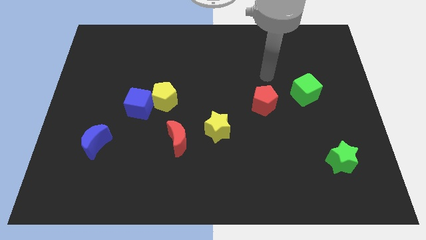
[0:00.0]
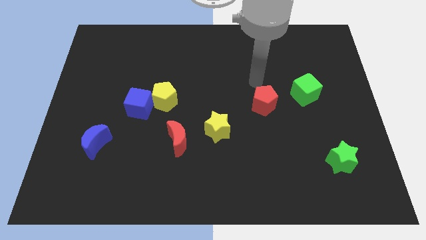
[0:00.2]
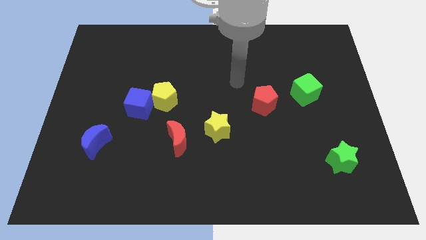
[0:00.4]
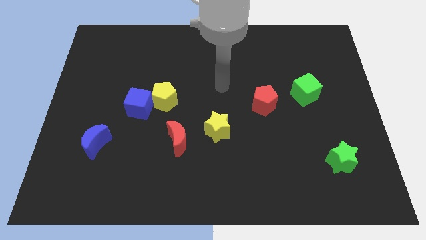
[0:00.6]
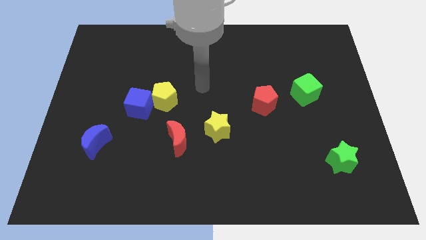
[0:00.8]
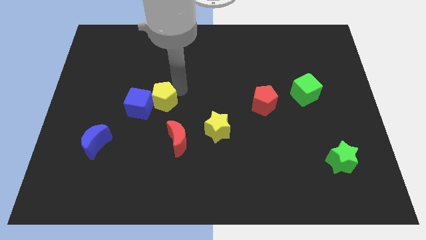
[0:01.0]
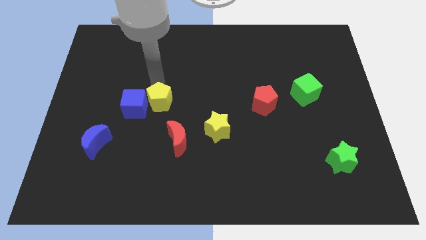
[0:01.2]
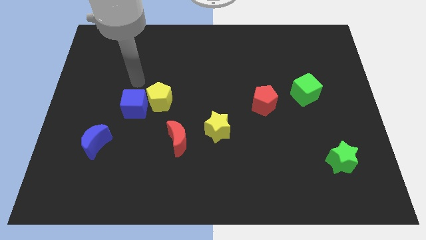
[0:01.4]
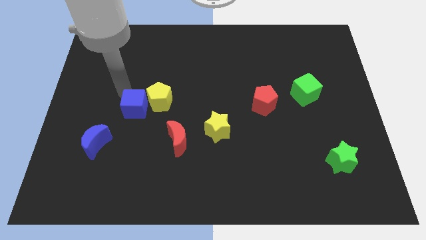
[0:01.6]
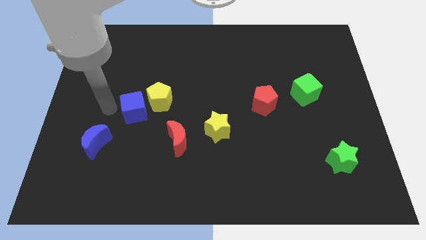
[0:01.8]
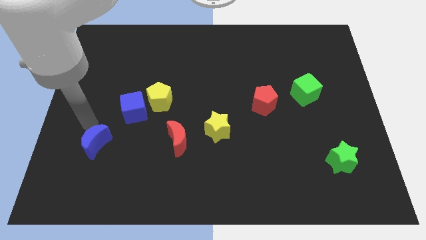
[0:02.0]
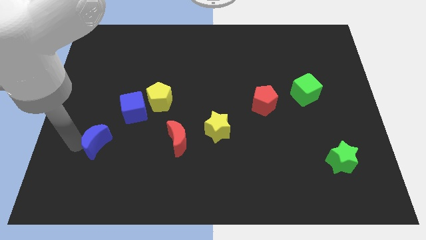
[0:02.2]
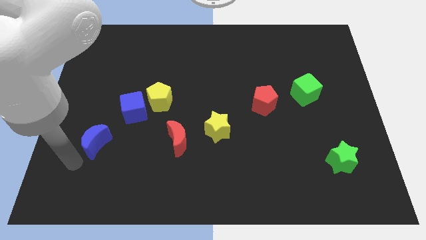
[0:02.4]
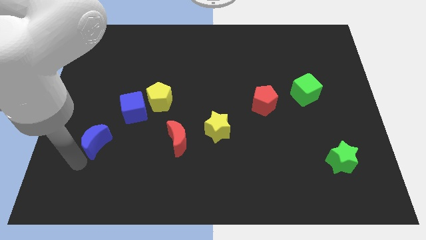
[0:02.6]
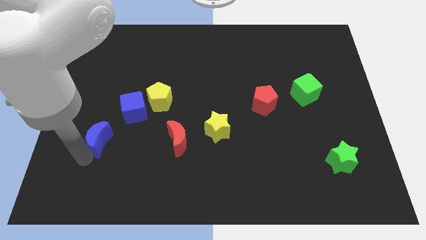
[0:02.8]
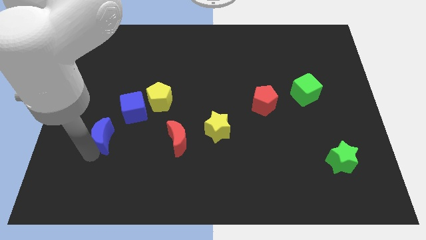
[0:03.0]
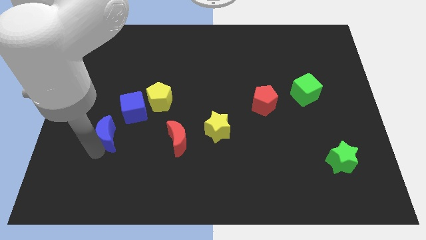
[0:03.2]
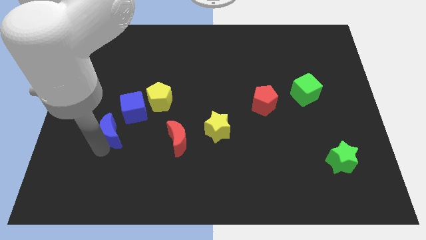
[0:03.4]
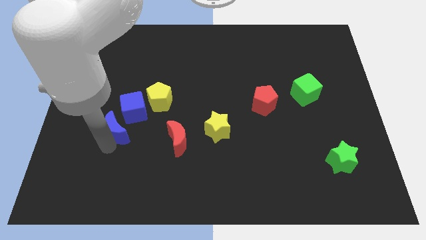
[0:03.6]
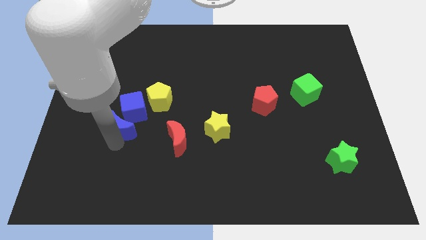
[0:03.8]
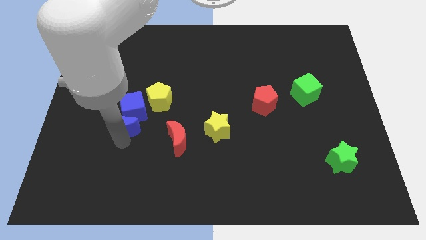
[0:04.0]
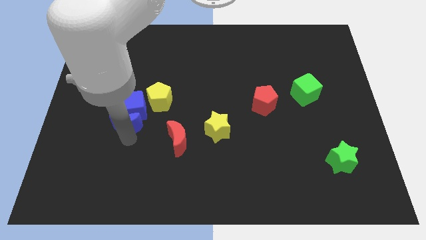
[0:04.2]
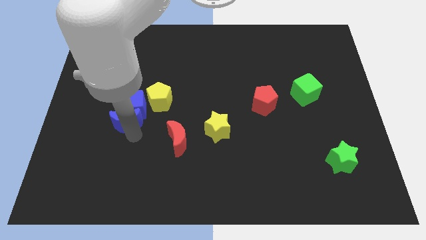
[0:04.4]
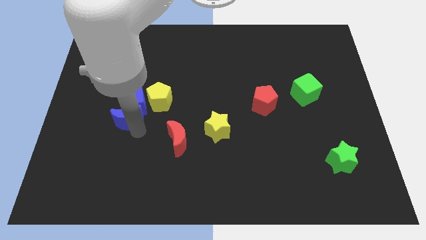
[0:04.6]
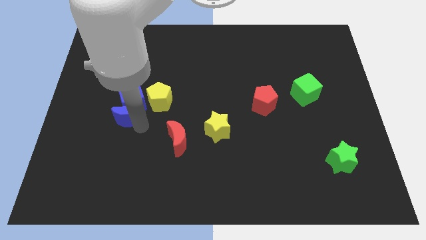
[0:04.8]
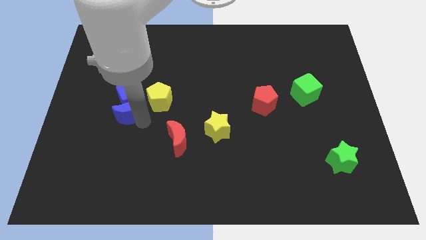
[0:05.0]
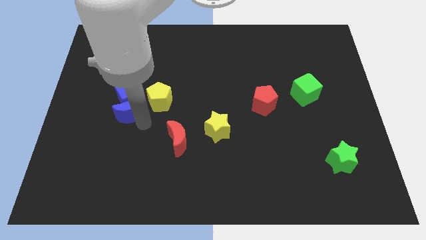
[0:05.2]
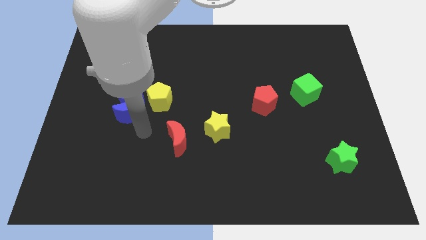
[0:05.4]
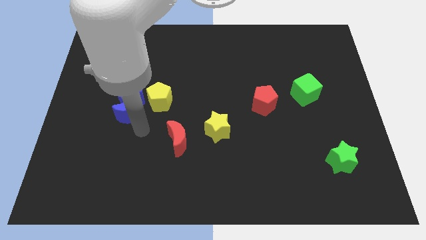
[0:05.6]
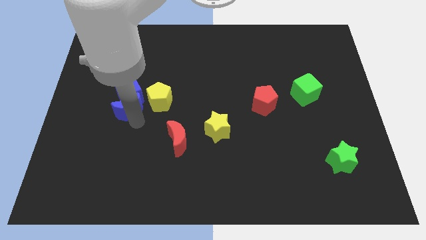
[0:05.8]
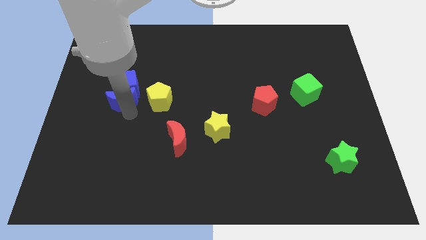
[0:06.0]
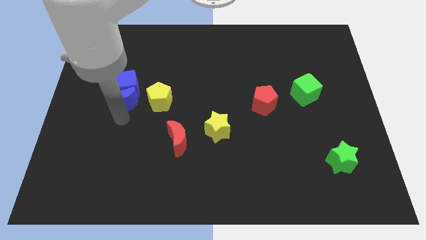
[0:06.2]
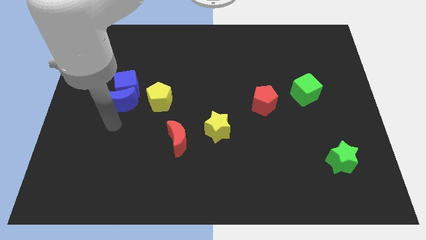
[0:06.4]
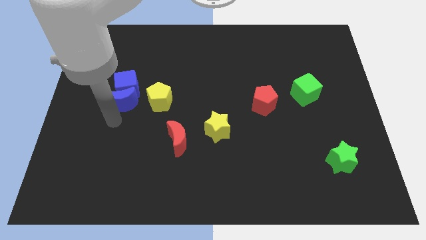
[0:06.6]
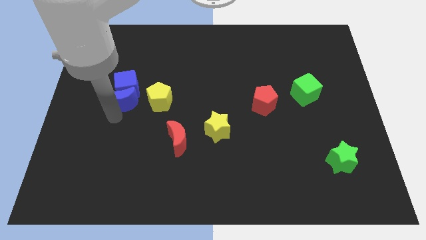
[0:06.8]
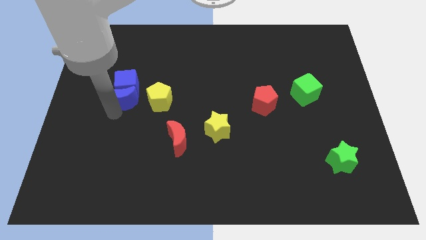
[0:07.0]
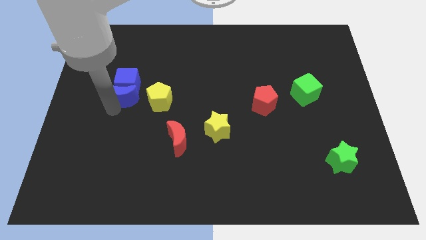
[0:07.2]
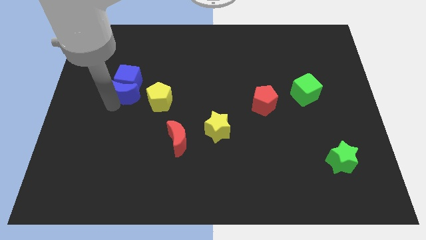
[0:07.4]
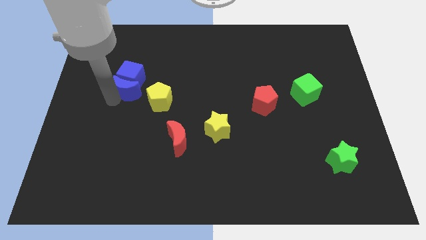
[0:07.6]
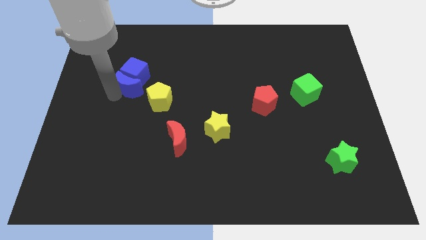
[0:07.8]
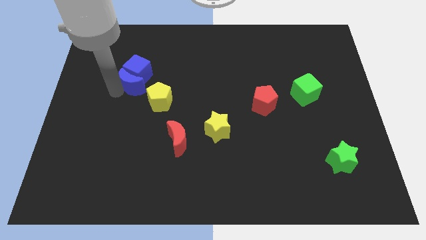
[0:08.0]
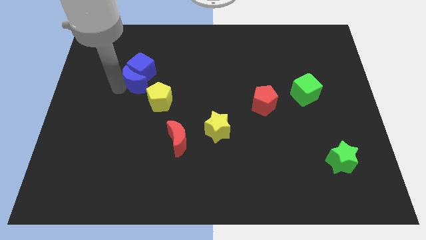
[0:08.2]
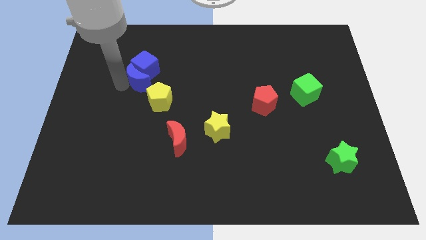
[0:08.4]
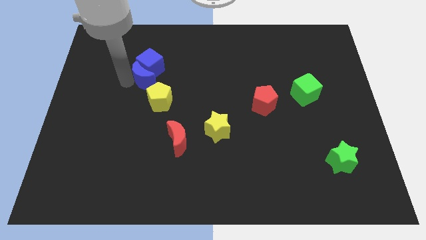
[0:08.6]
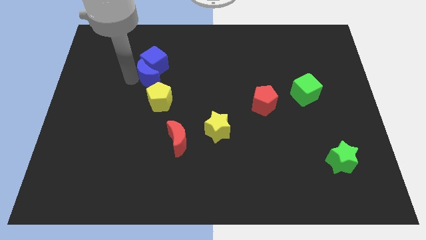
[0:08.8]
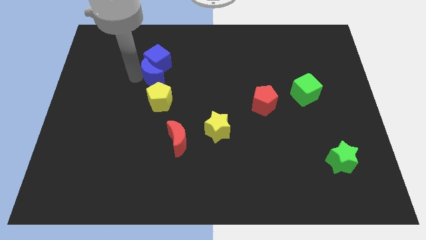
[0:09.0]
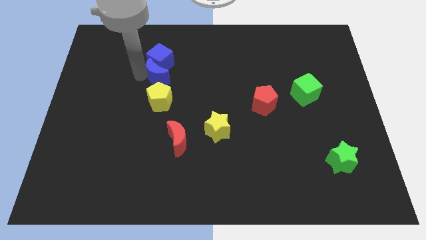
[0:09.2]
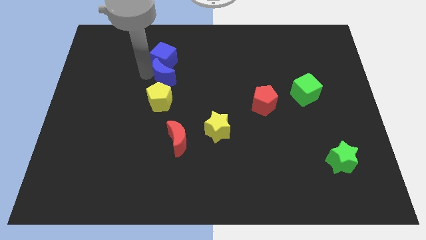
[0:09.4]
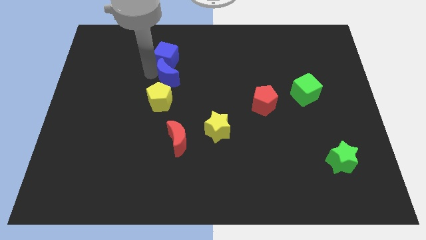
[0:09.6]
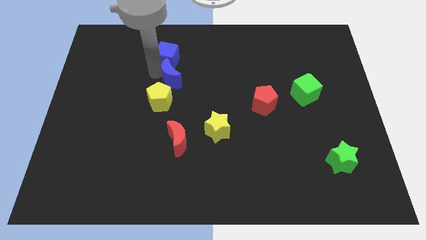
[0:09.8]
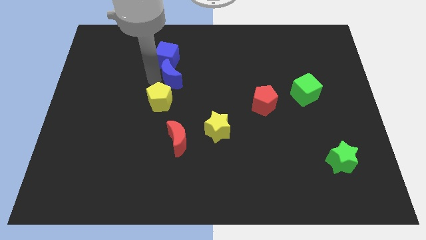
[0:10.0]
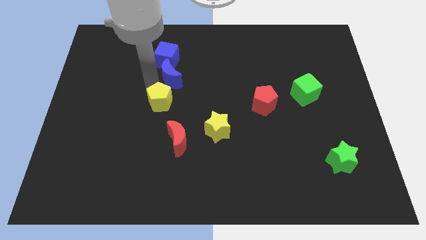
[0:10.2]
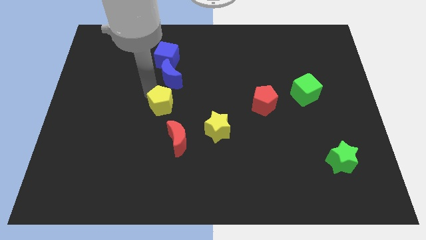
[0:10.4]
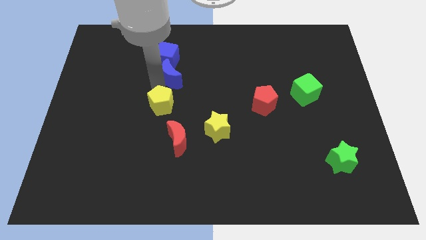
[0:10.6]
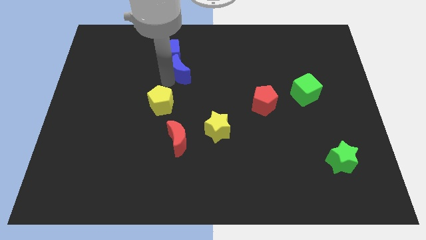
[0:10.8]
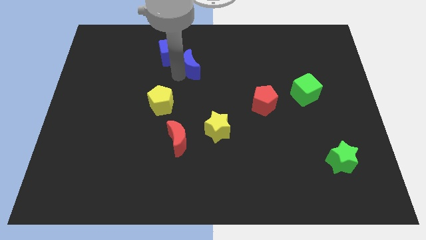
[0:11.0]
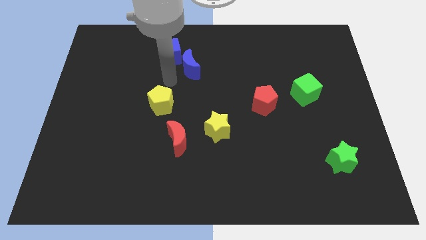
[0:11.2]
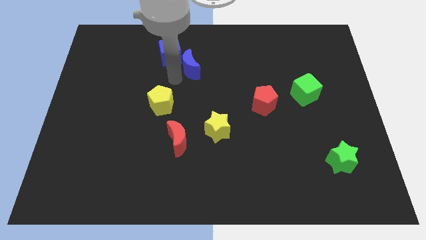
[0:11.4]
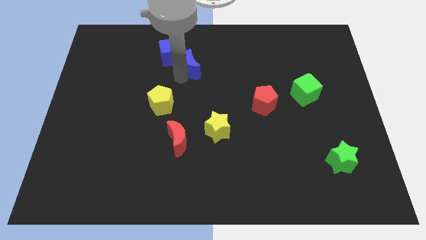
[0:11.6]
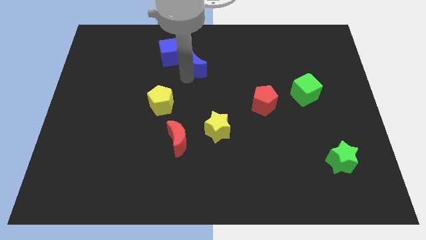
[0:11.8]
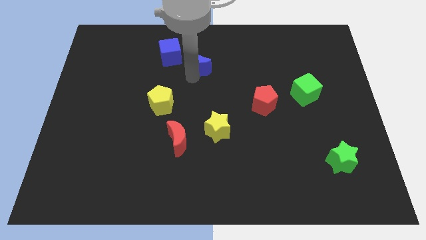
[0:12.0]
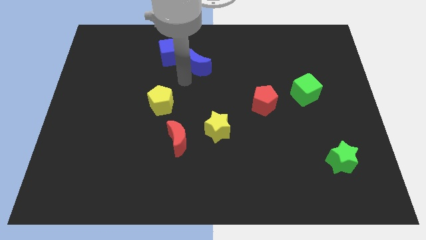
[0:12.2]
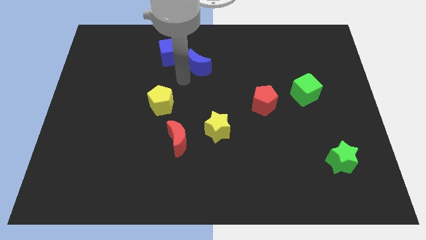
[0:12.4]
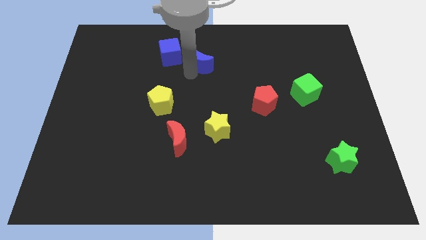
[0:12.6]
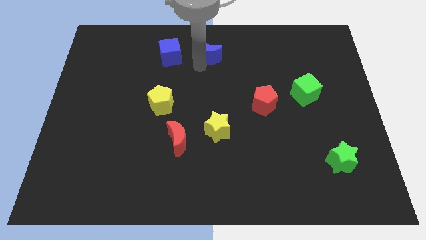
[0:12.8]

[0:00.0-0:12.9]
push the blue moon to the top
